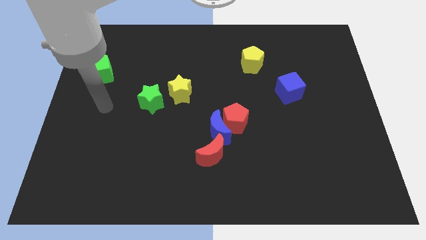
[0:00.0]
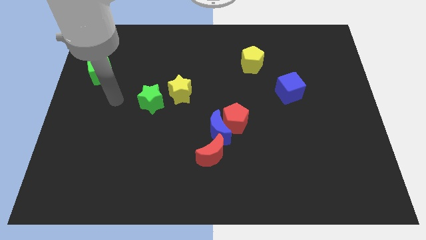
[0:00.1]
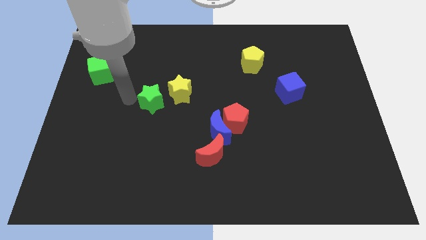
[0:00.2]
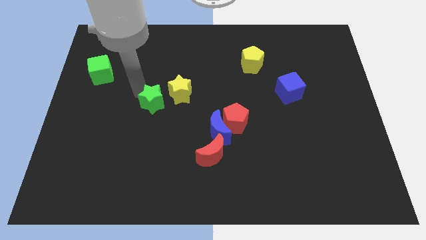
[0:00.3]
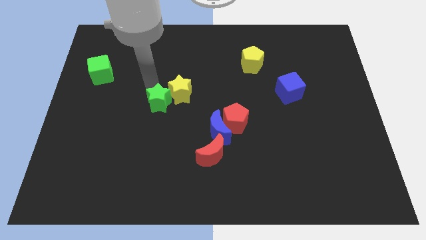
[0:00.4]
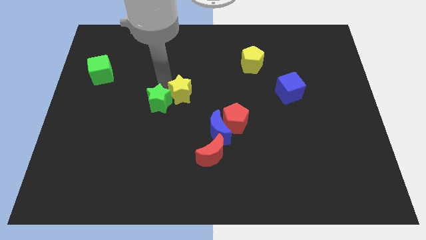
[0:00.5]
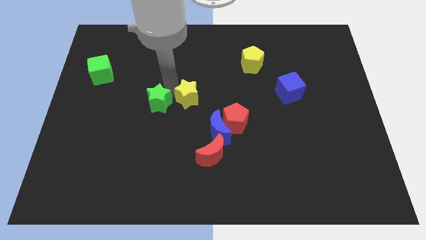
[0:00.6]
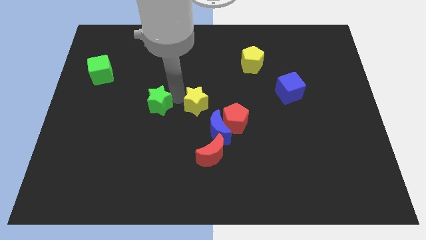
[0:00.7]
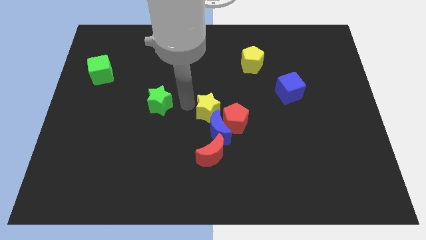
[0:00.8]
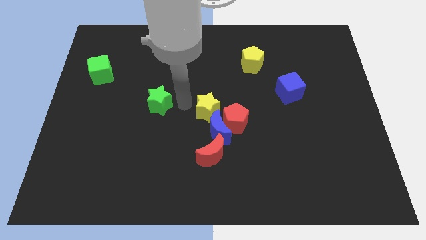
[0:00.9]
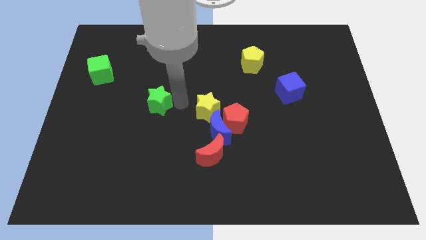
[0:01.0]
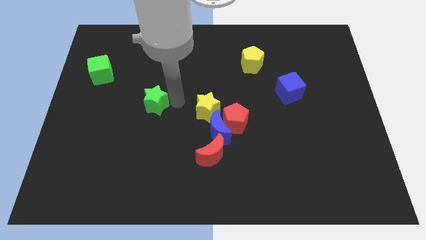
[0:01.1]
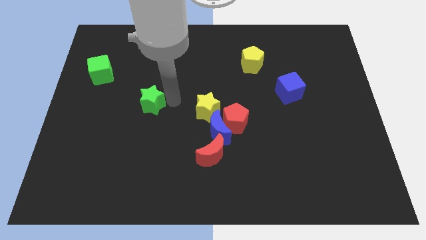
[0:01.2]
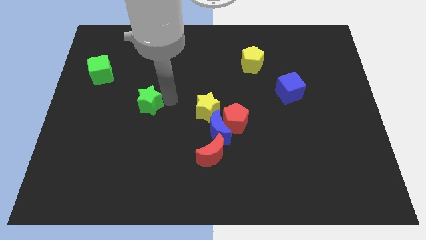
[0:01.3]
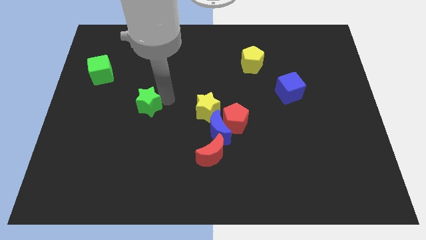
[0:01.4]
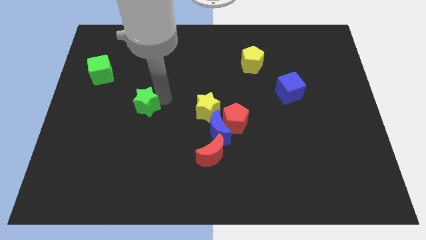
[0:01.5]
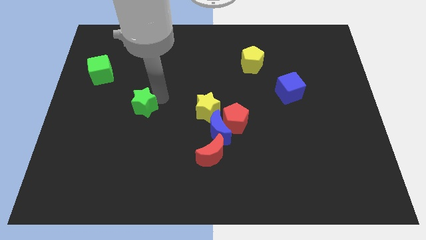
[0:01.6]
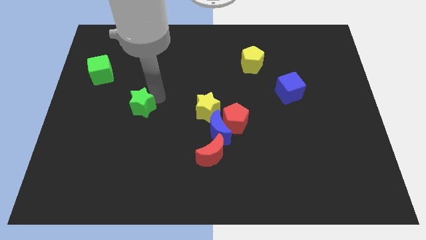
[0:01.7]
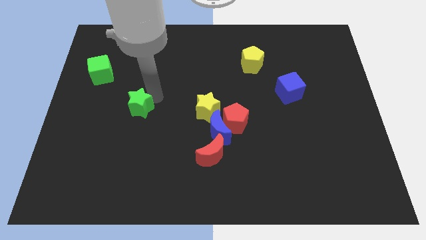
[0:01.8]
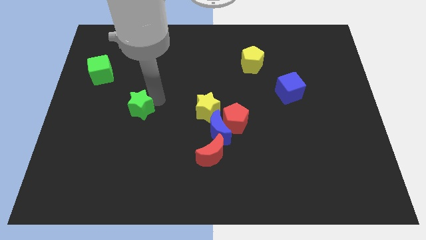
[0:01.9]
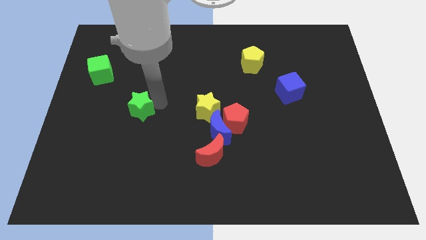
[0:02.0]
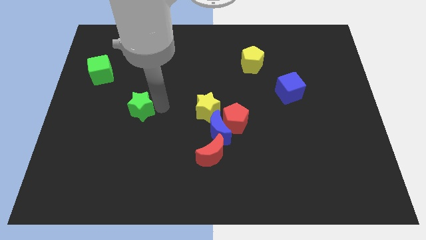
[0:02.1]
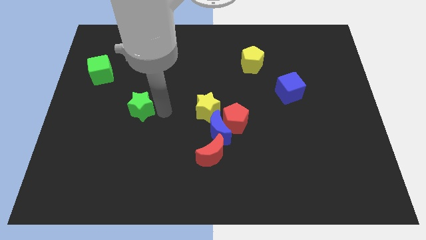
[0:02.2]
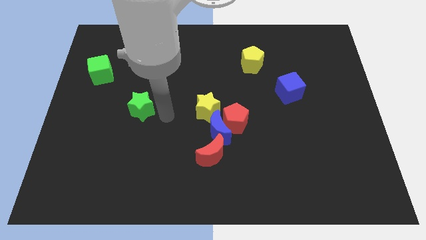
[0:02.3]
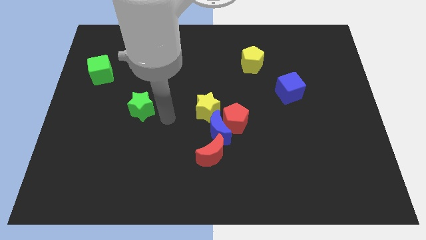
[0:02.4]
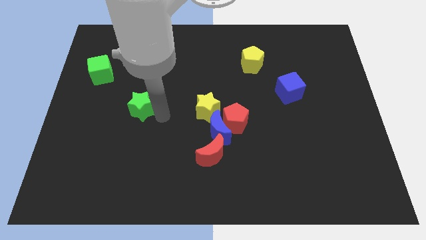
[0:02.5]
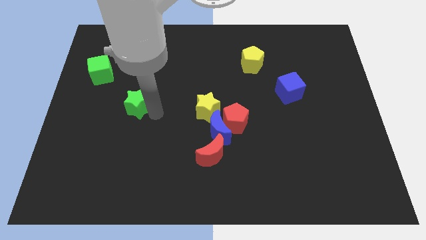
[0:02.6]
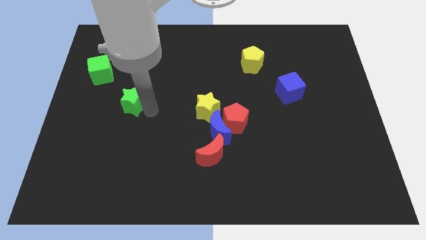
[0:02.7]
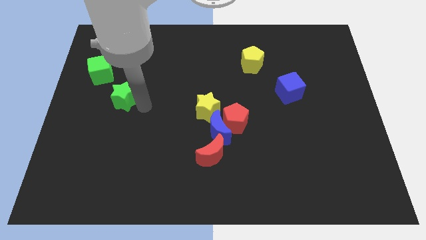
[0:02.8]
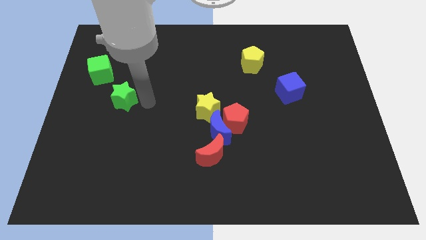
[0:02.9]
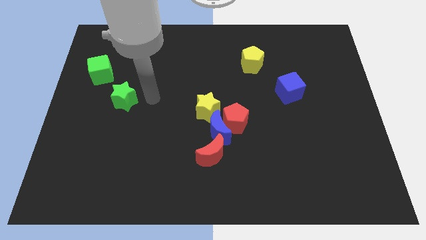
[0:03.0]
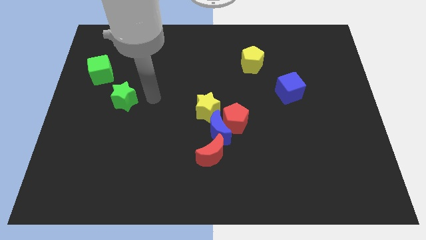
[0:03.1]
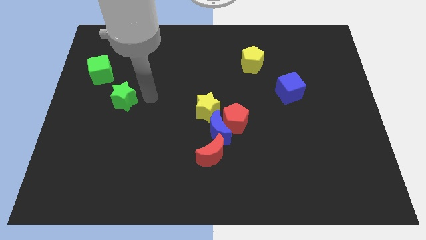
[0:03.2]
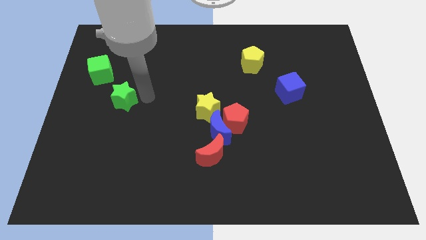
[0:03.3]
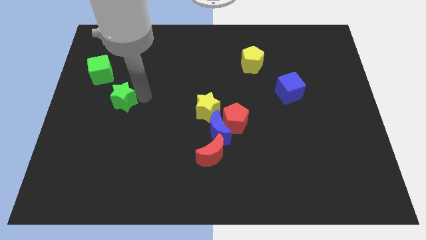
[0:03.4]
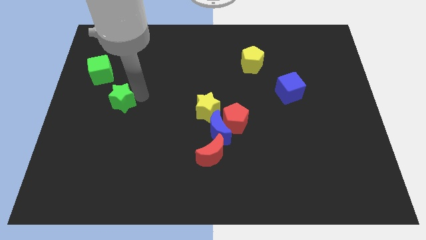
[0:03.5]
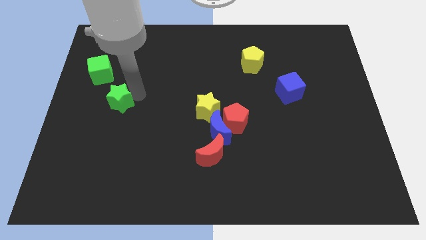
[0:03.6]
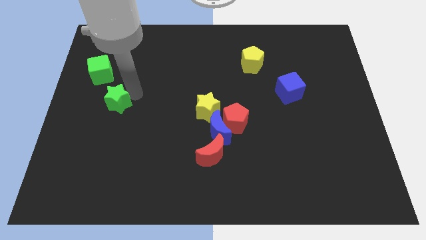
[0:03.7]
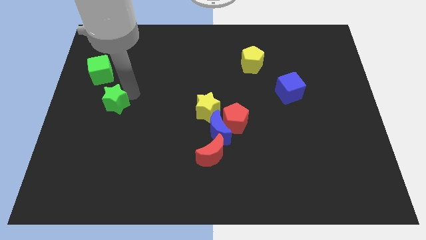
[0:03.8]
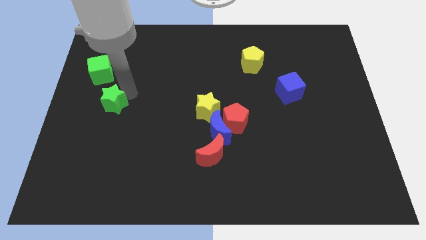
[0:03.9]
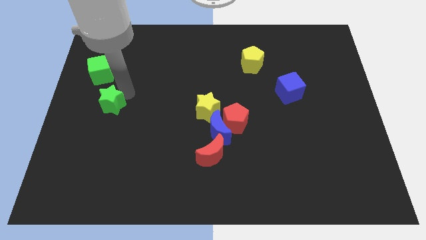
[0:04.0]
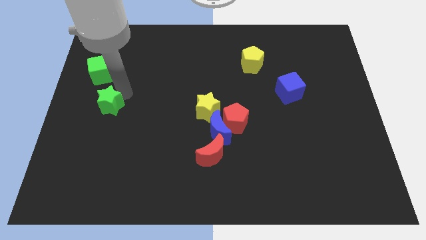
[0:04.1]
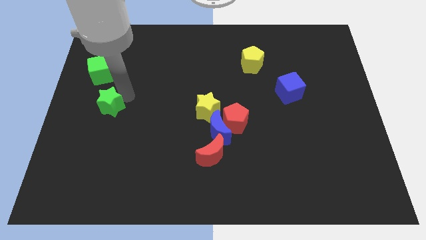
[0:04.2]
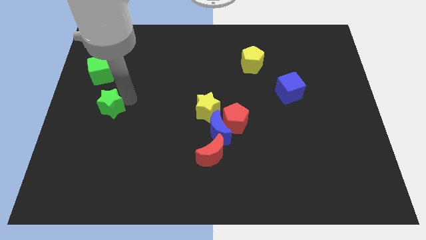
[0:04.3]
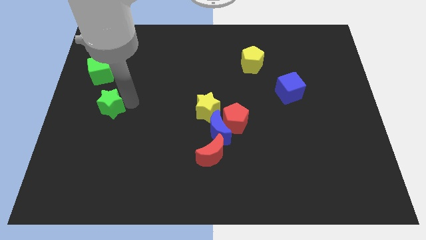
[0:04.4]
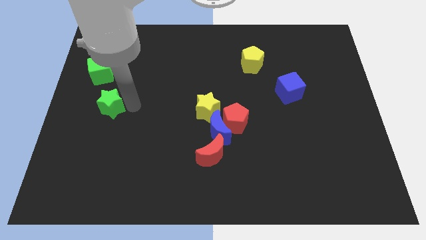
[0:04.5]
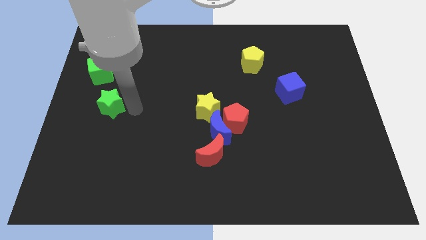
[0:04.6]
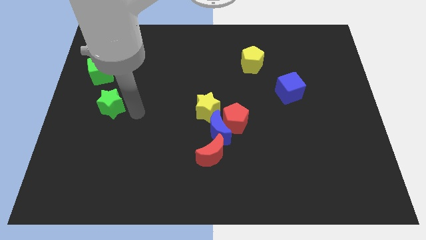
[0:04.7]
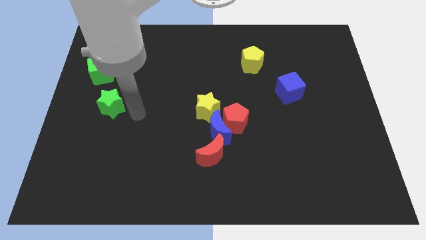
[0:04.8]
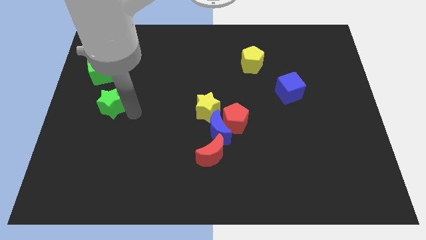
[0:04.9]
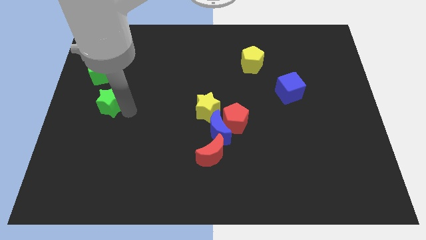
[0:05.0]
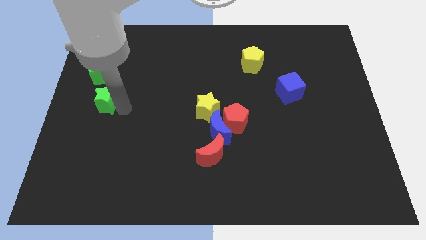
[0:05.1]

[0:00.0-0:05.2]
slide the green star to the left side of the board

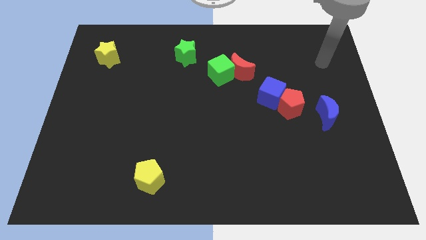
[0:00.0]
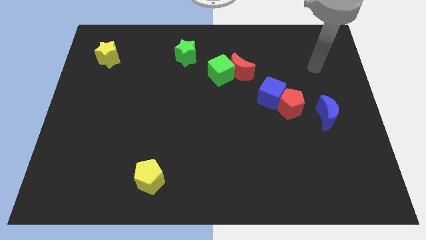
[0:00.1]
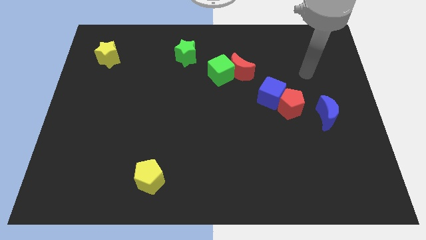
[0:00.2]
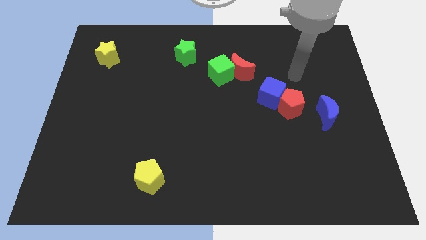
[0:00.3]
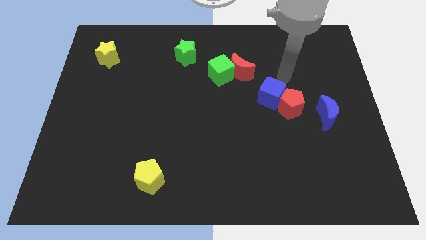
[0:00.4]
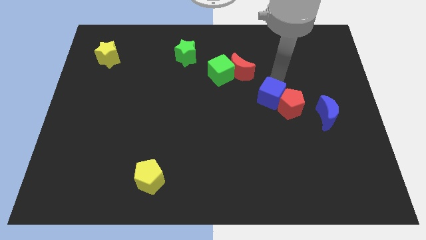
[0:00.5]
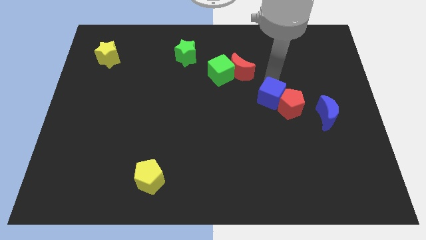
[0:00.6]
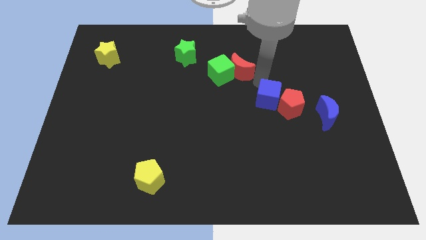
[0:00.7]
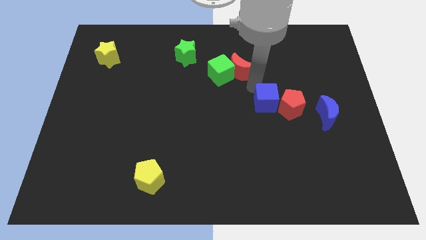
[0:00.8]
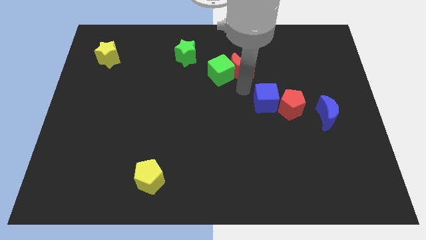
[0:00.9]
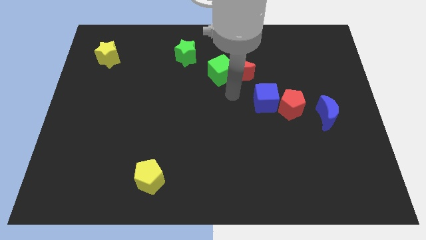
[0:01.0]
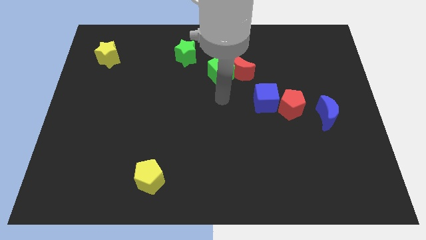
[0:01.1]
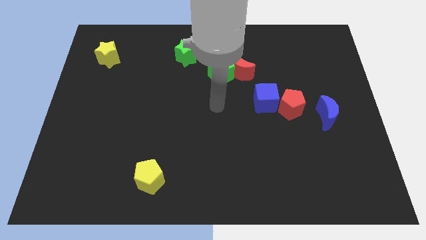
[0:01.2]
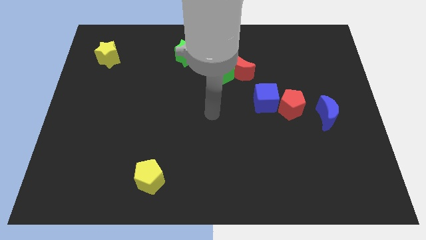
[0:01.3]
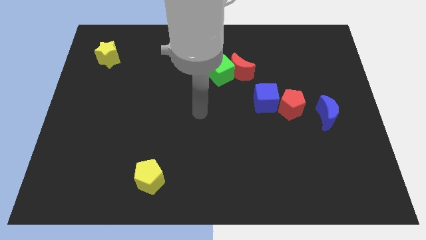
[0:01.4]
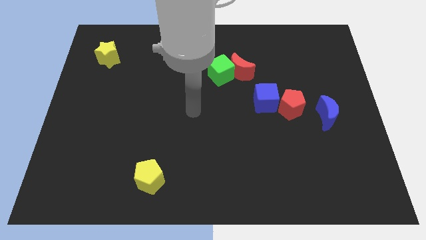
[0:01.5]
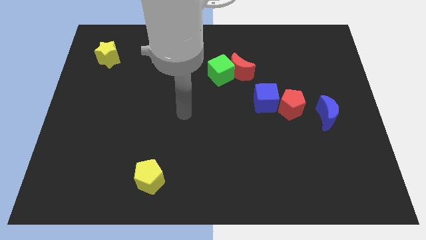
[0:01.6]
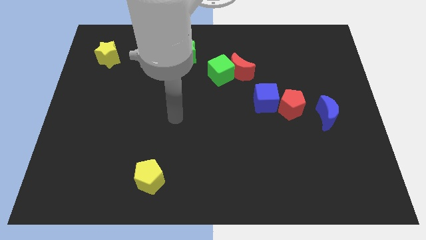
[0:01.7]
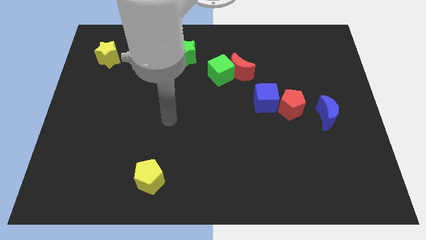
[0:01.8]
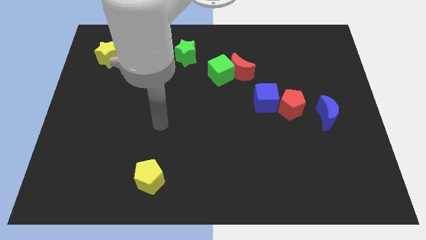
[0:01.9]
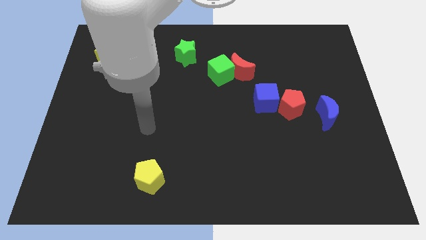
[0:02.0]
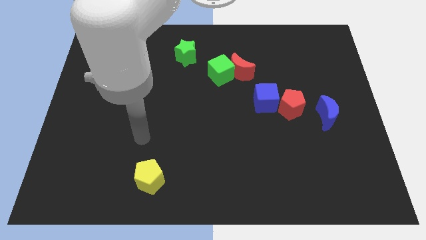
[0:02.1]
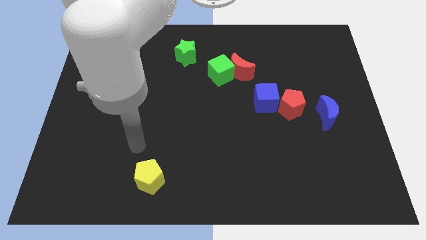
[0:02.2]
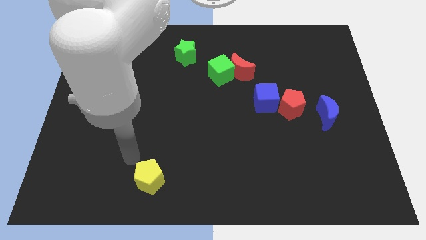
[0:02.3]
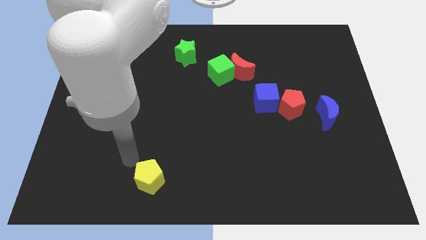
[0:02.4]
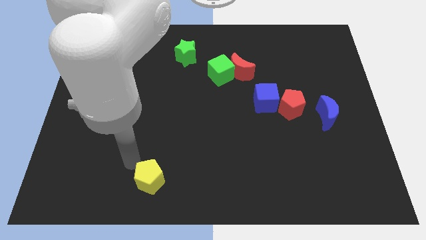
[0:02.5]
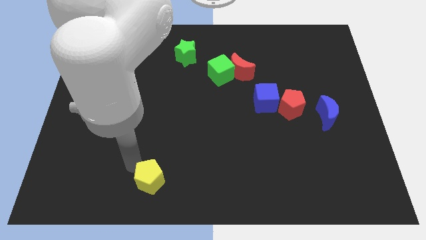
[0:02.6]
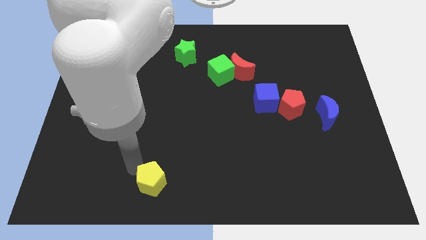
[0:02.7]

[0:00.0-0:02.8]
slide the yellow pentagon to the bottom
